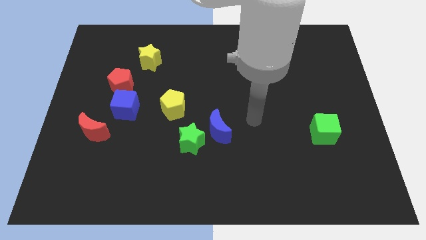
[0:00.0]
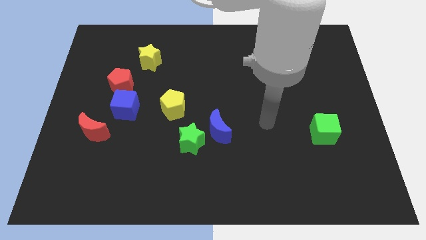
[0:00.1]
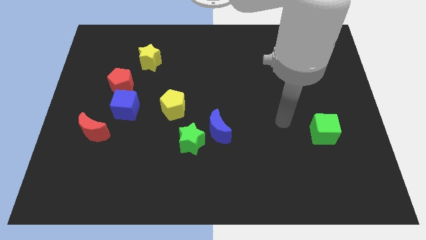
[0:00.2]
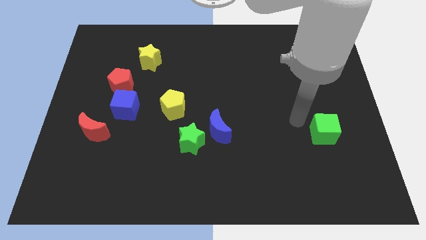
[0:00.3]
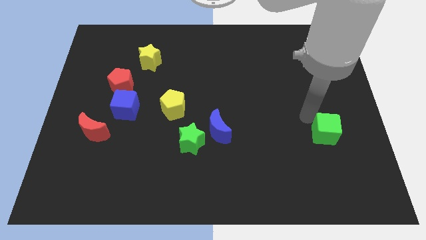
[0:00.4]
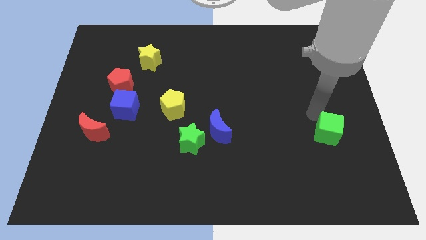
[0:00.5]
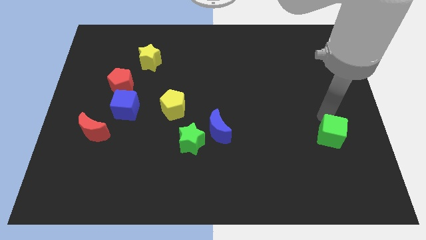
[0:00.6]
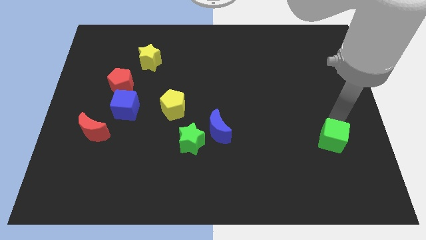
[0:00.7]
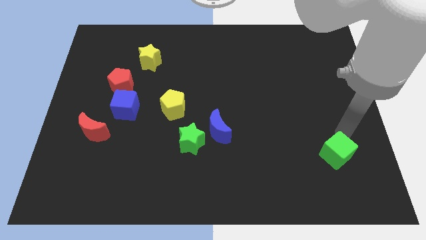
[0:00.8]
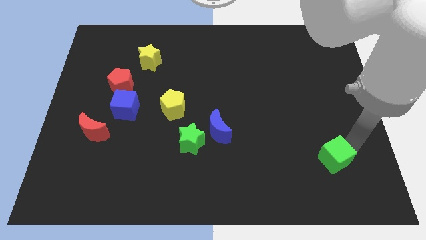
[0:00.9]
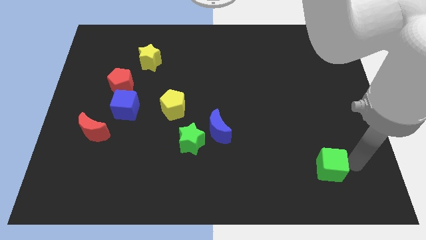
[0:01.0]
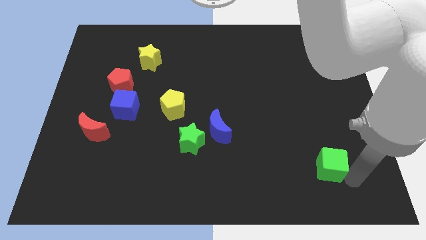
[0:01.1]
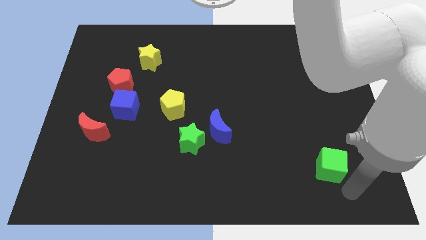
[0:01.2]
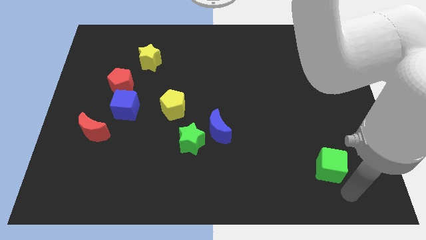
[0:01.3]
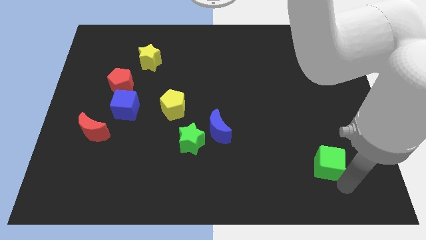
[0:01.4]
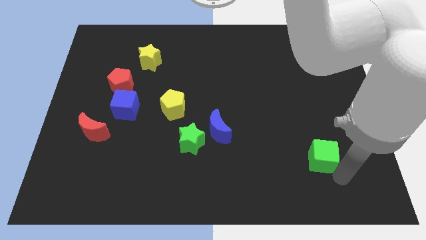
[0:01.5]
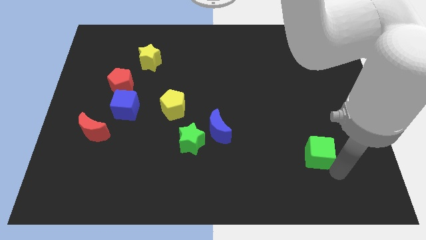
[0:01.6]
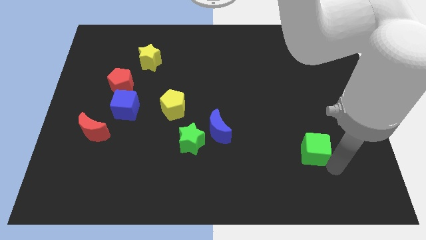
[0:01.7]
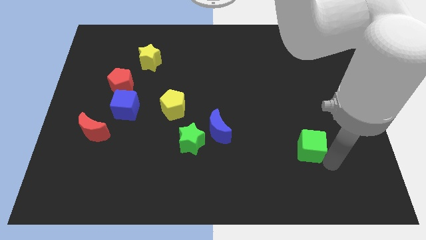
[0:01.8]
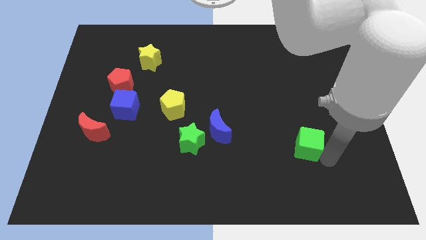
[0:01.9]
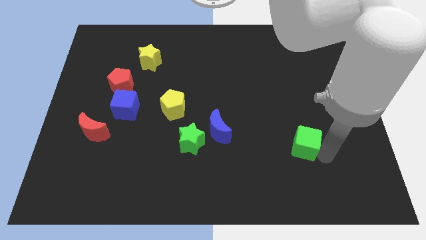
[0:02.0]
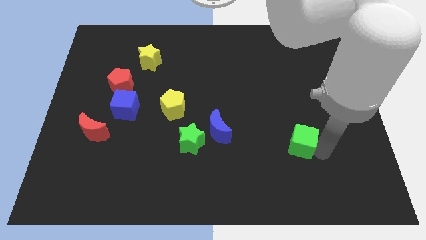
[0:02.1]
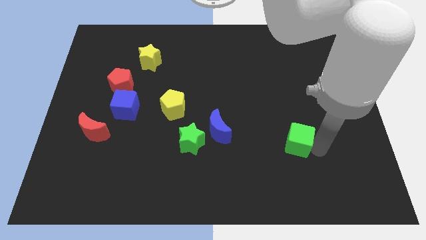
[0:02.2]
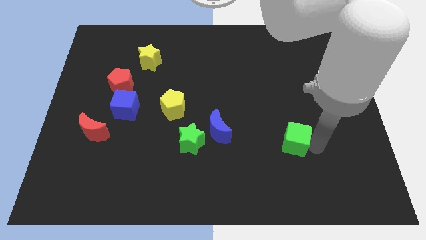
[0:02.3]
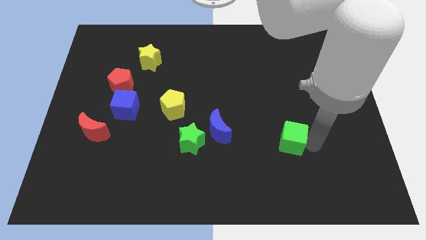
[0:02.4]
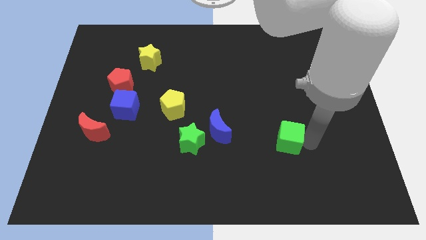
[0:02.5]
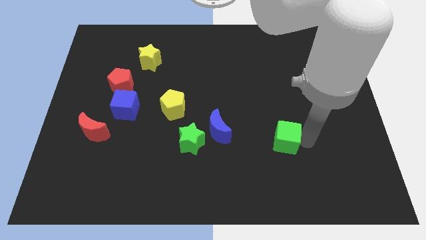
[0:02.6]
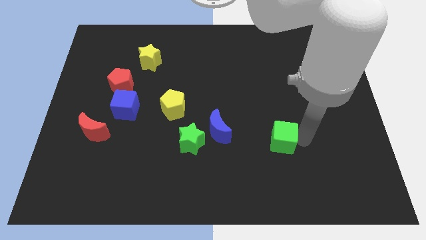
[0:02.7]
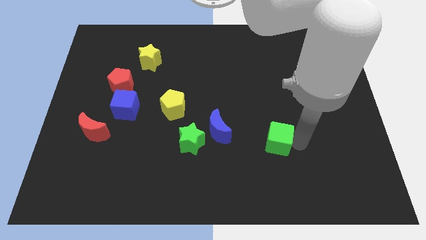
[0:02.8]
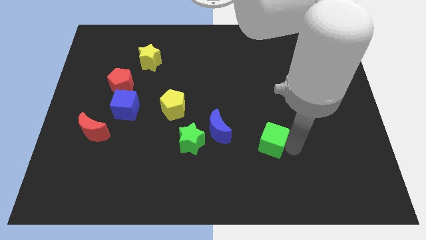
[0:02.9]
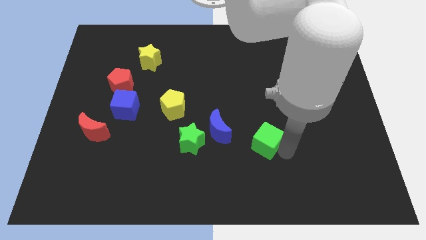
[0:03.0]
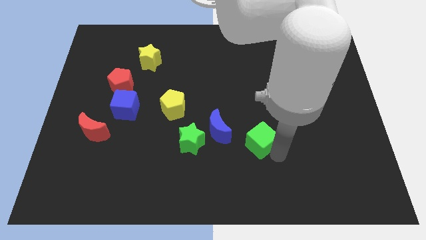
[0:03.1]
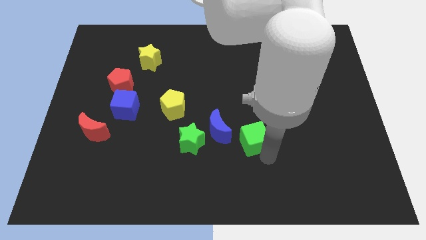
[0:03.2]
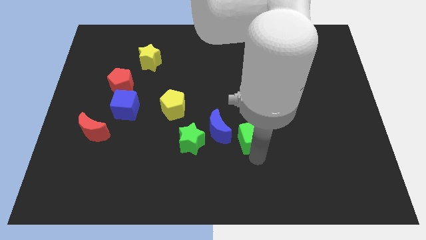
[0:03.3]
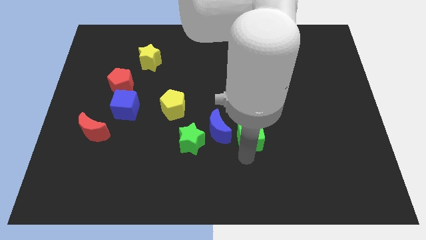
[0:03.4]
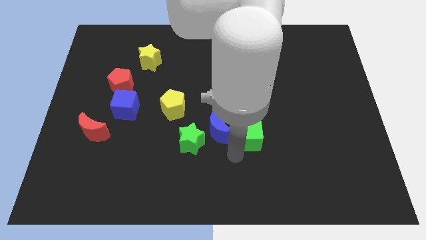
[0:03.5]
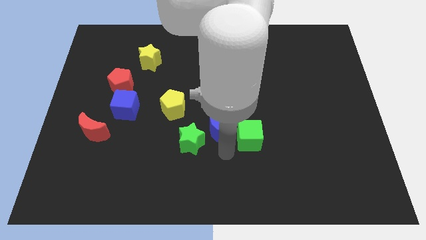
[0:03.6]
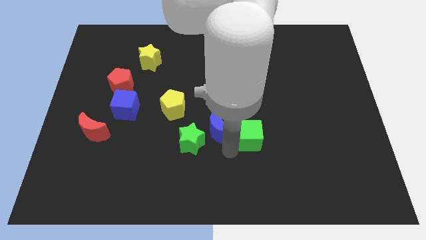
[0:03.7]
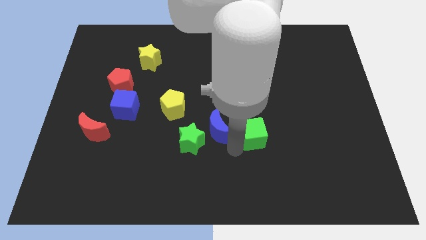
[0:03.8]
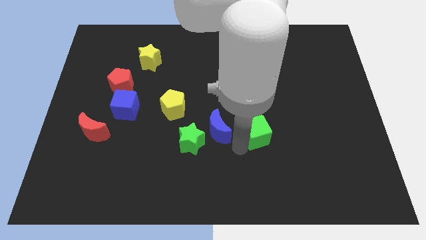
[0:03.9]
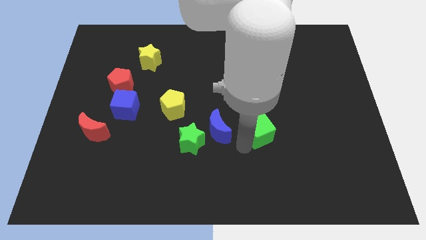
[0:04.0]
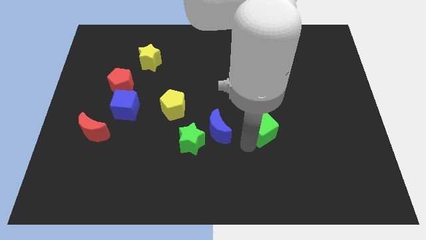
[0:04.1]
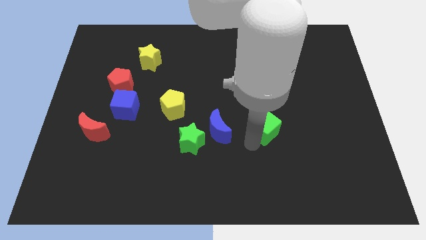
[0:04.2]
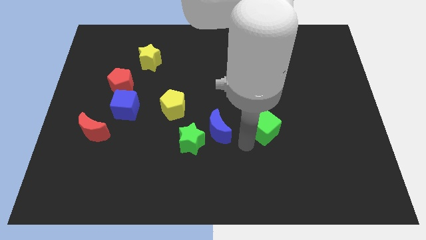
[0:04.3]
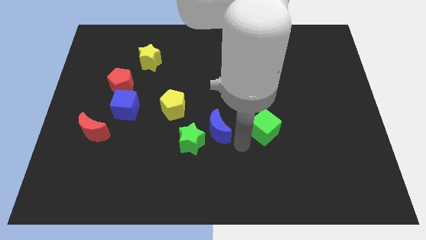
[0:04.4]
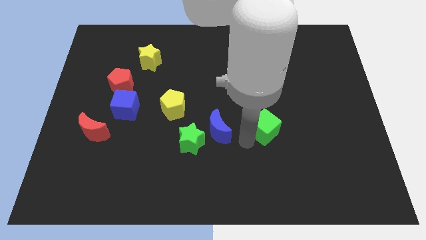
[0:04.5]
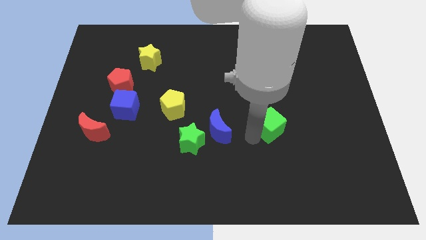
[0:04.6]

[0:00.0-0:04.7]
slightly move the green cube diagonally up and to the left

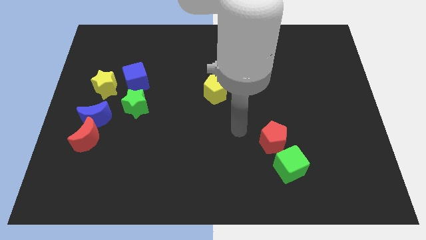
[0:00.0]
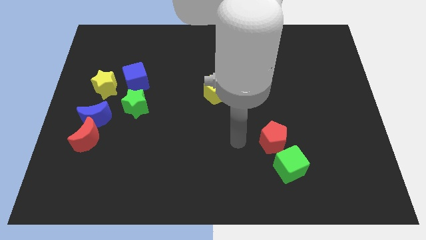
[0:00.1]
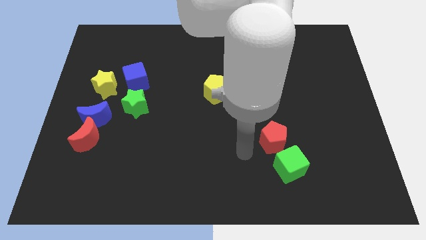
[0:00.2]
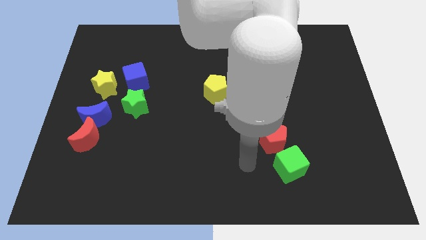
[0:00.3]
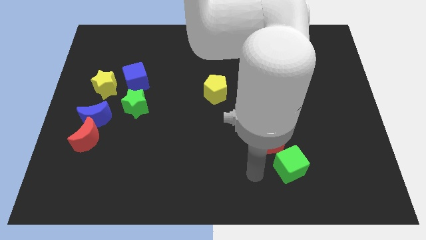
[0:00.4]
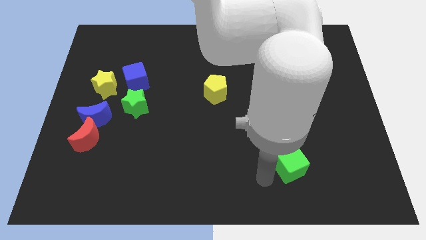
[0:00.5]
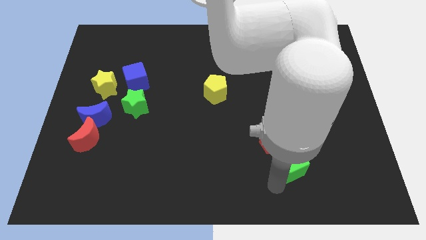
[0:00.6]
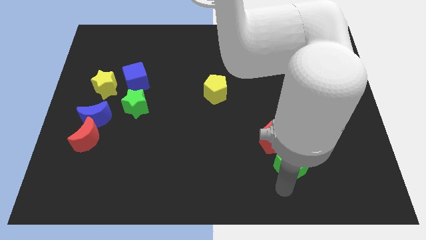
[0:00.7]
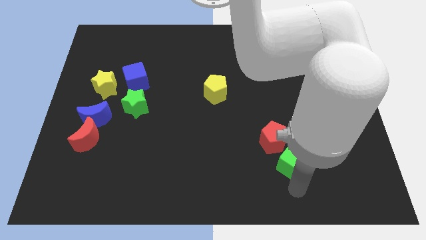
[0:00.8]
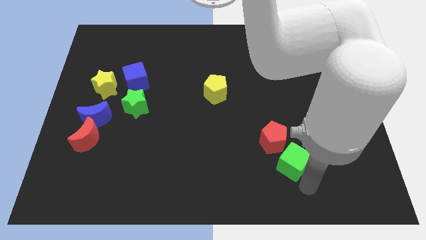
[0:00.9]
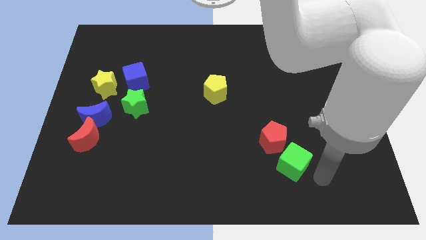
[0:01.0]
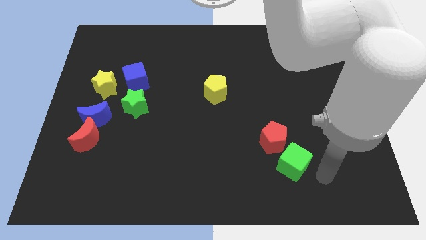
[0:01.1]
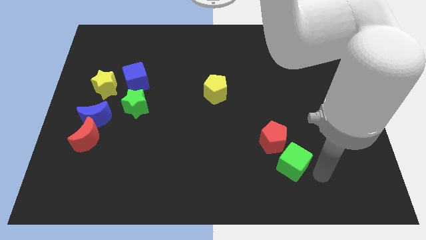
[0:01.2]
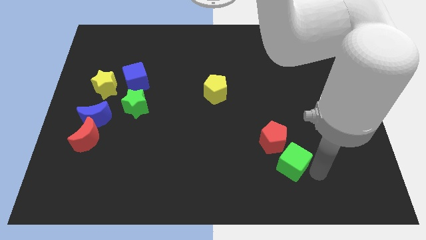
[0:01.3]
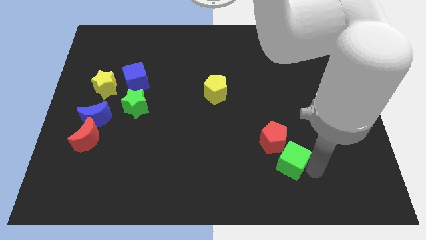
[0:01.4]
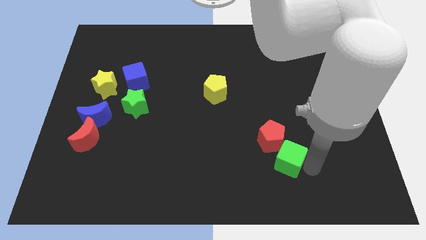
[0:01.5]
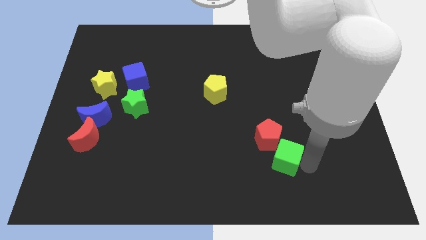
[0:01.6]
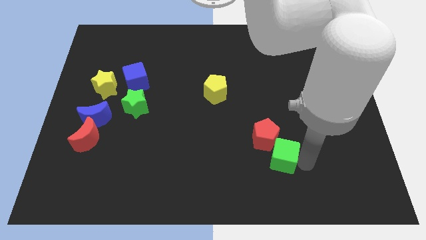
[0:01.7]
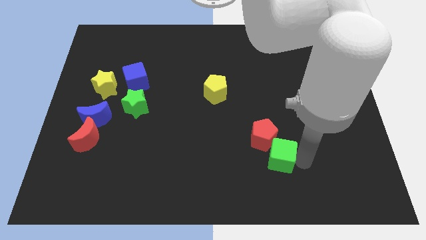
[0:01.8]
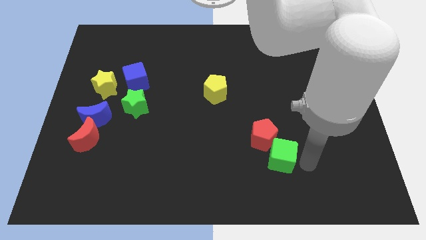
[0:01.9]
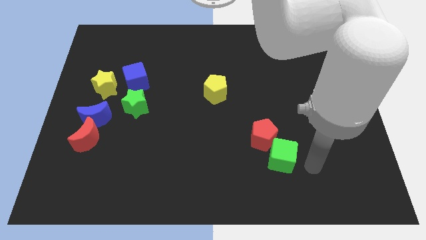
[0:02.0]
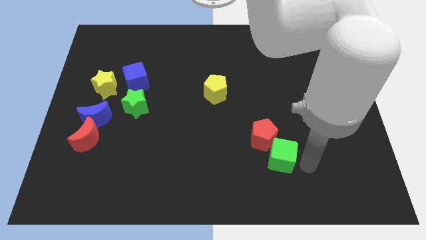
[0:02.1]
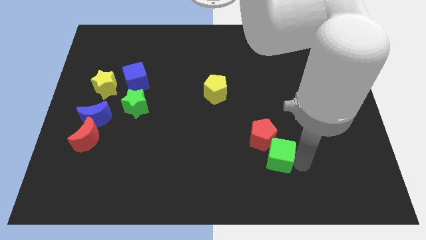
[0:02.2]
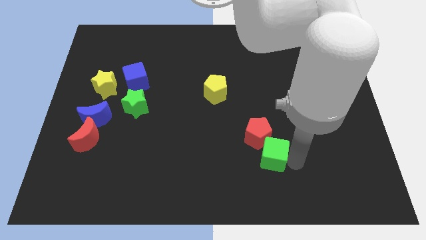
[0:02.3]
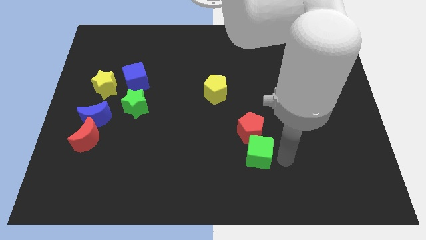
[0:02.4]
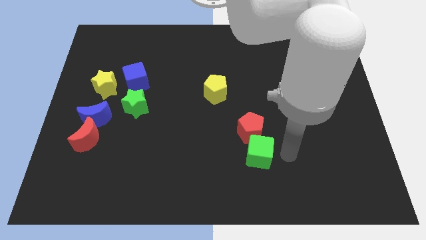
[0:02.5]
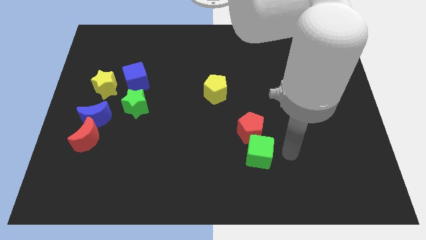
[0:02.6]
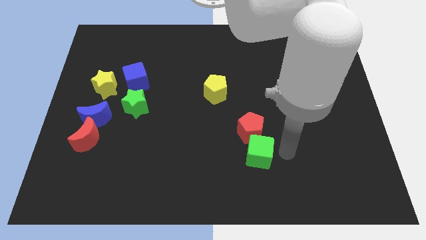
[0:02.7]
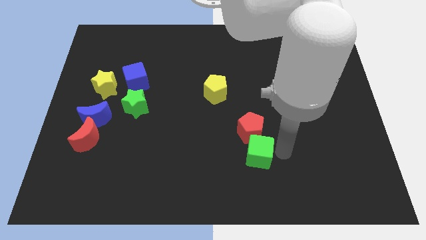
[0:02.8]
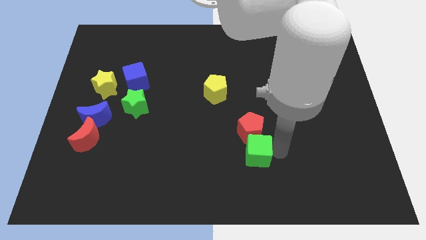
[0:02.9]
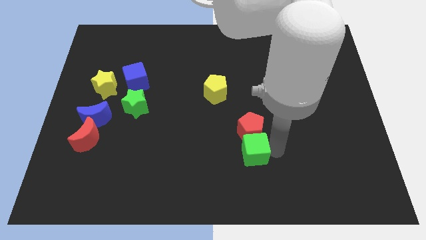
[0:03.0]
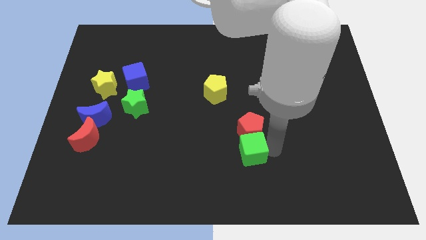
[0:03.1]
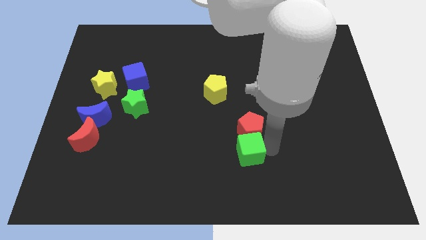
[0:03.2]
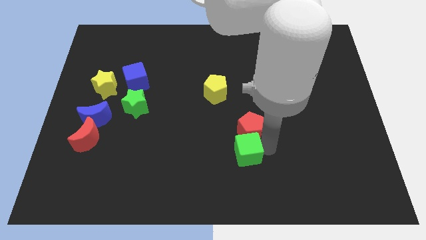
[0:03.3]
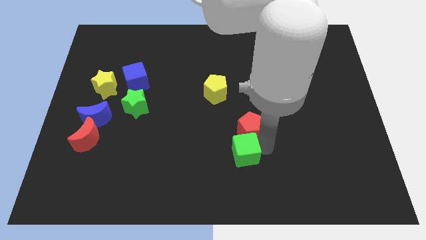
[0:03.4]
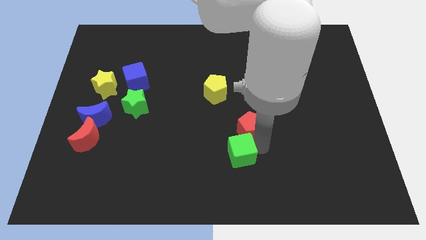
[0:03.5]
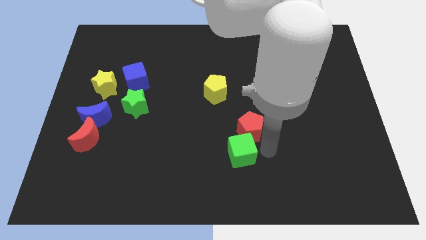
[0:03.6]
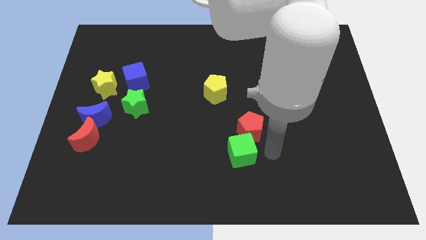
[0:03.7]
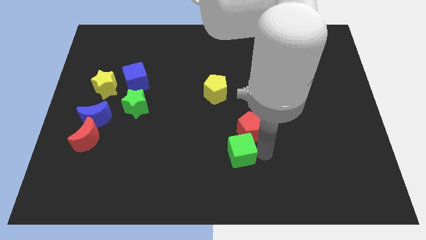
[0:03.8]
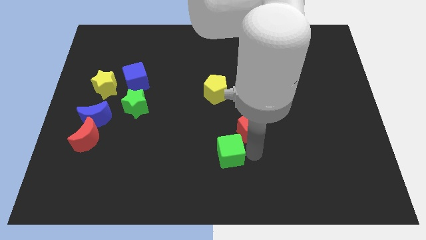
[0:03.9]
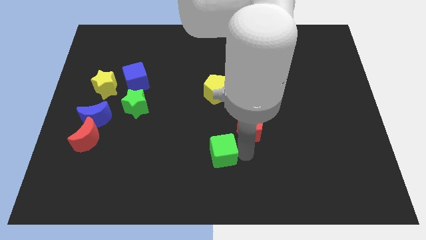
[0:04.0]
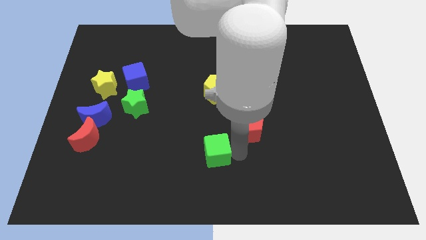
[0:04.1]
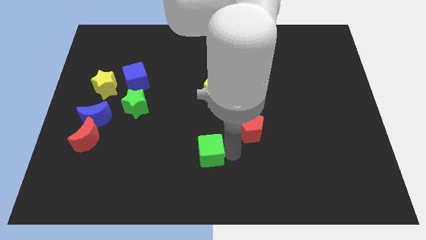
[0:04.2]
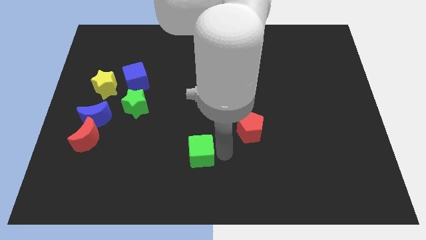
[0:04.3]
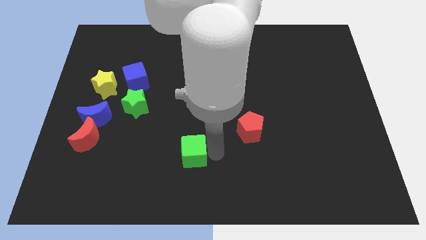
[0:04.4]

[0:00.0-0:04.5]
slide the green cube left
